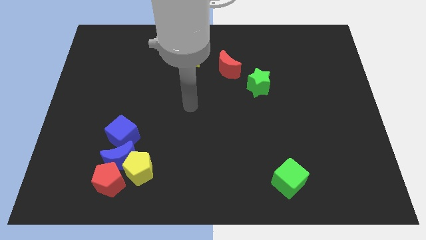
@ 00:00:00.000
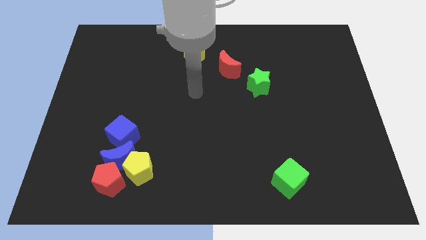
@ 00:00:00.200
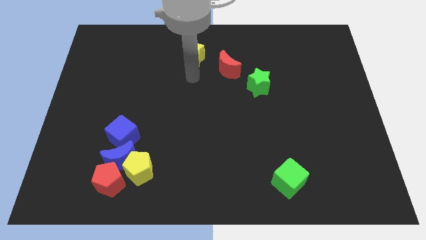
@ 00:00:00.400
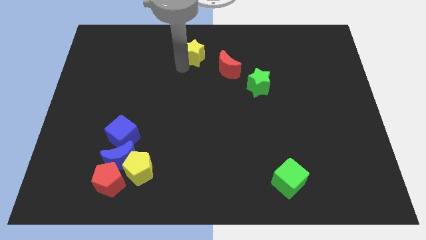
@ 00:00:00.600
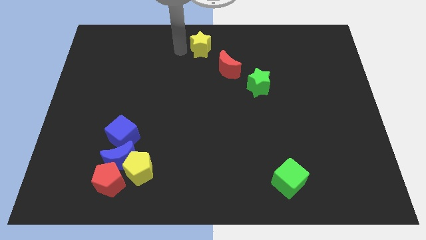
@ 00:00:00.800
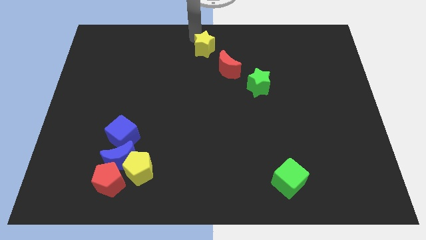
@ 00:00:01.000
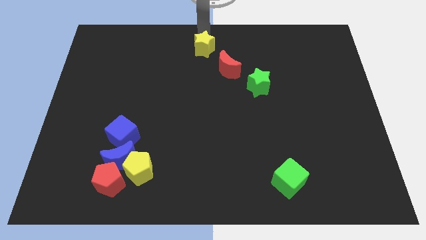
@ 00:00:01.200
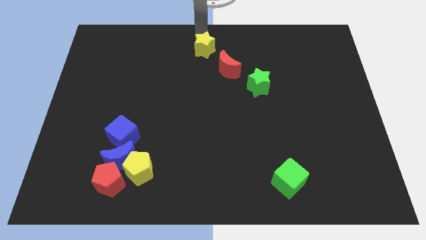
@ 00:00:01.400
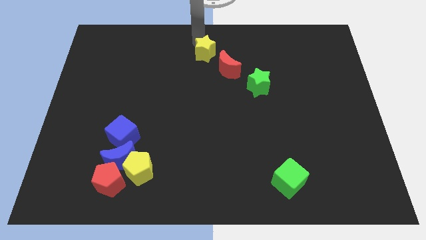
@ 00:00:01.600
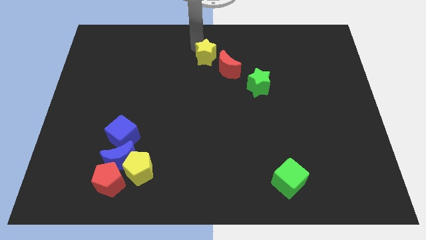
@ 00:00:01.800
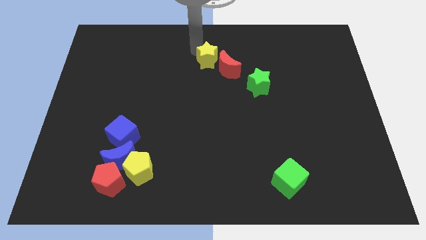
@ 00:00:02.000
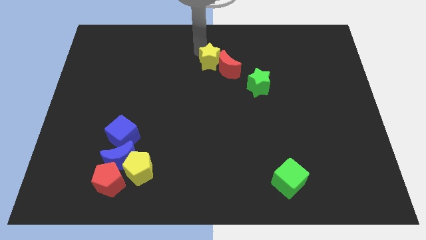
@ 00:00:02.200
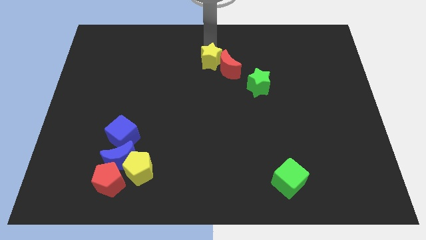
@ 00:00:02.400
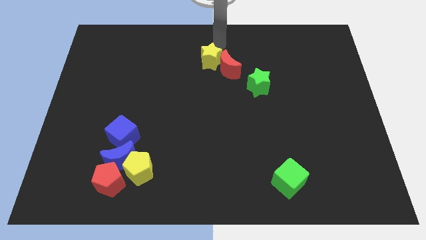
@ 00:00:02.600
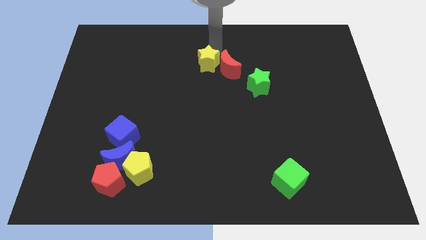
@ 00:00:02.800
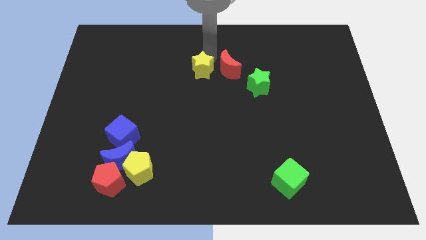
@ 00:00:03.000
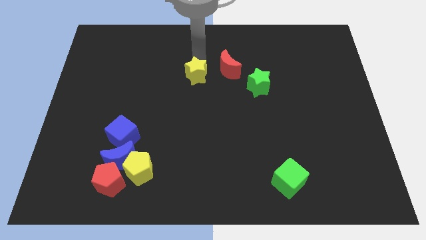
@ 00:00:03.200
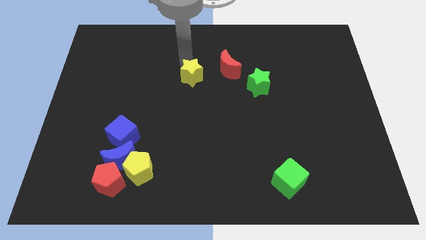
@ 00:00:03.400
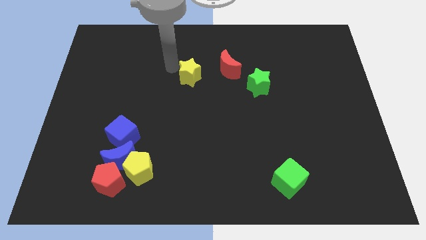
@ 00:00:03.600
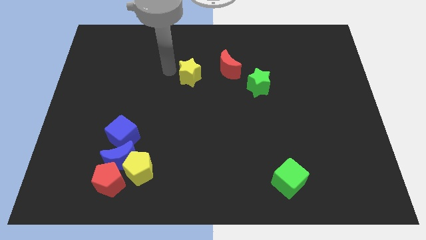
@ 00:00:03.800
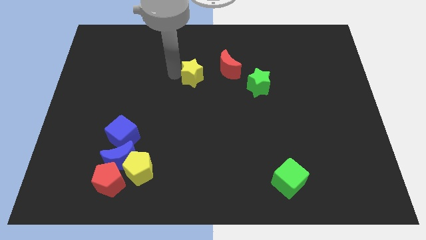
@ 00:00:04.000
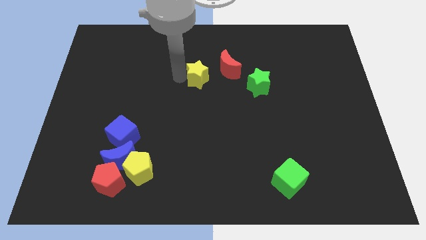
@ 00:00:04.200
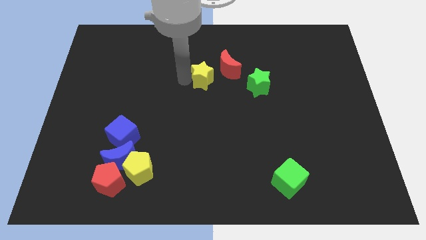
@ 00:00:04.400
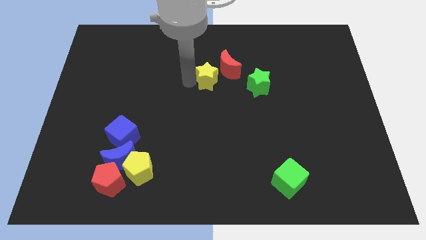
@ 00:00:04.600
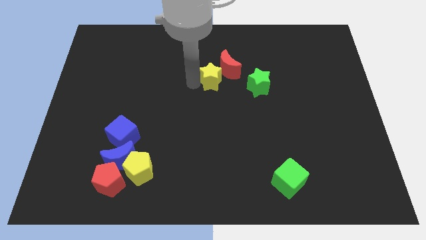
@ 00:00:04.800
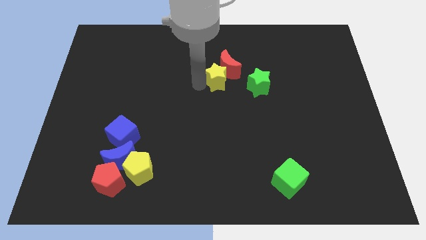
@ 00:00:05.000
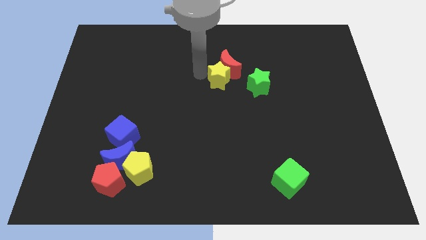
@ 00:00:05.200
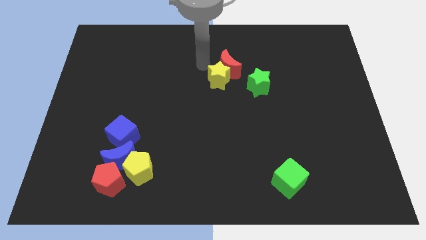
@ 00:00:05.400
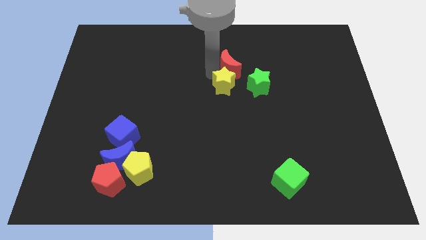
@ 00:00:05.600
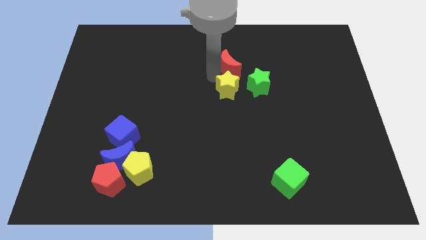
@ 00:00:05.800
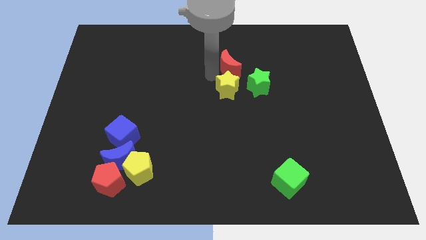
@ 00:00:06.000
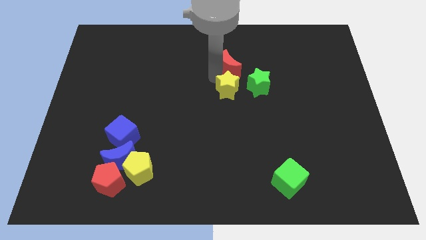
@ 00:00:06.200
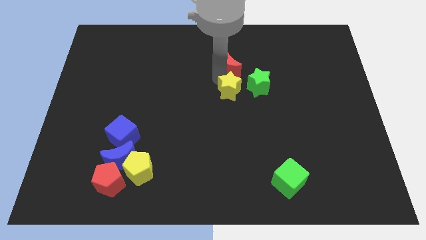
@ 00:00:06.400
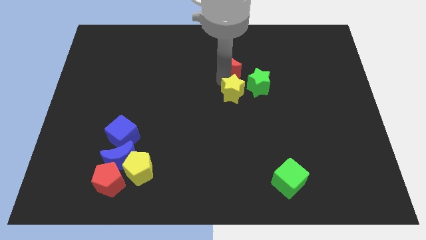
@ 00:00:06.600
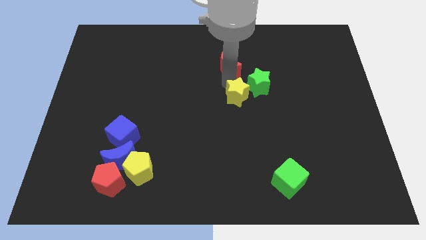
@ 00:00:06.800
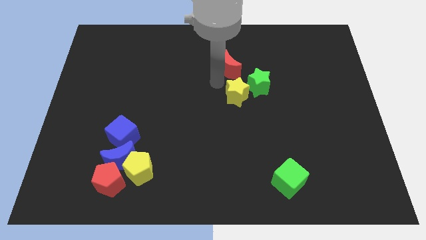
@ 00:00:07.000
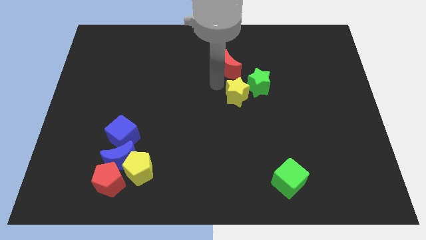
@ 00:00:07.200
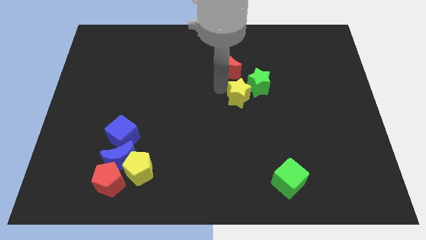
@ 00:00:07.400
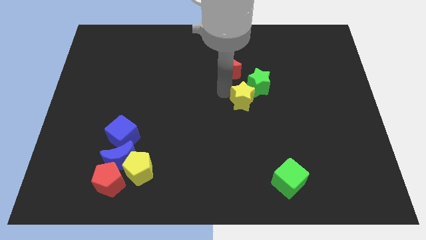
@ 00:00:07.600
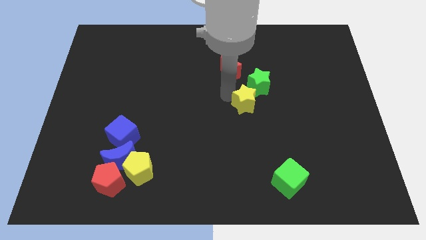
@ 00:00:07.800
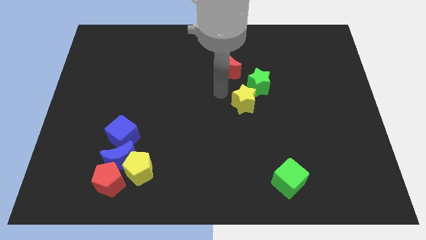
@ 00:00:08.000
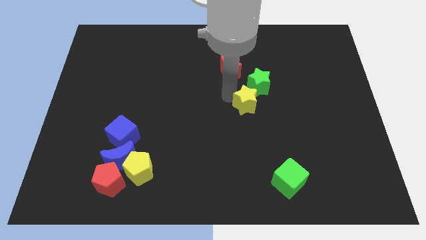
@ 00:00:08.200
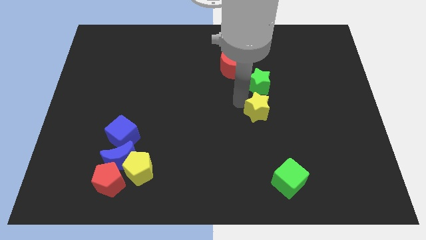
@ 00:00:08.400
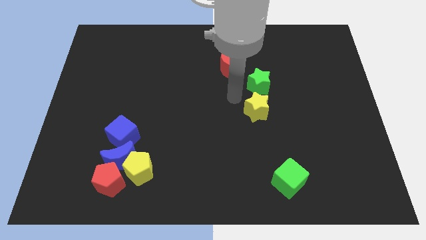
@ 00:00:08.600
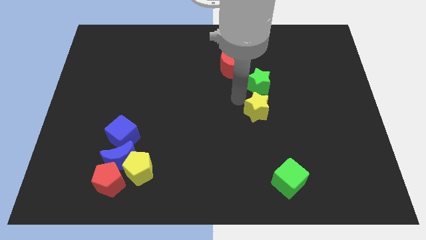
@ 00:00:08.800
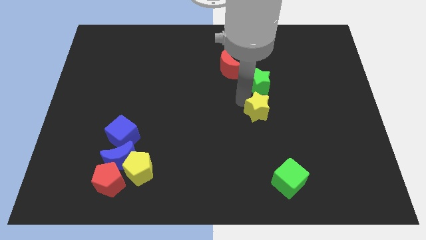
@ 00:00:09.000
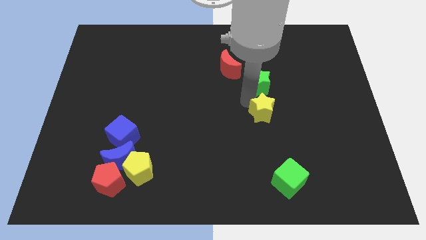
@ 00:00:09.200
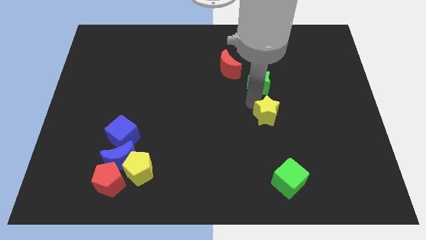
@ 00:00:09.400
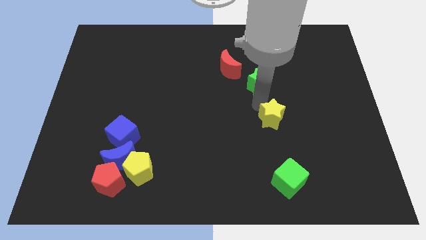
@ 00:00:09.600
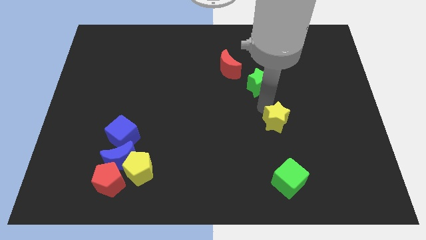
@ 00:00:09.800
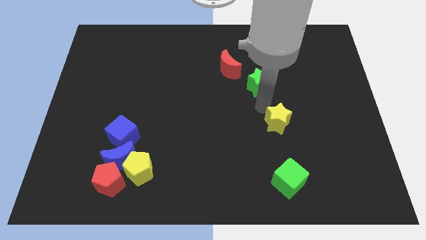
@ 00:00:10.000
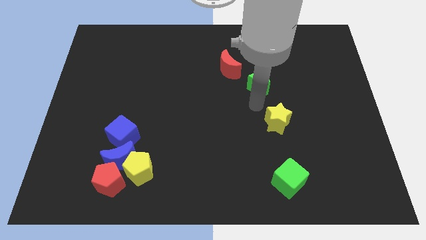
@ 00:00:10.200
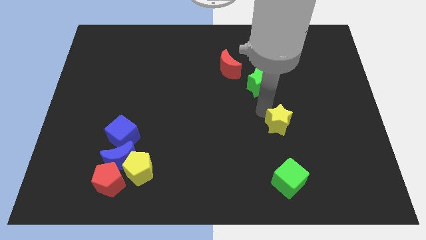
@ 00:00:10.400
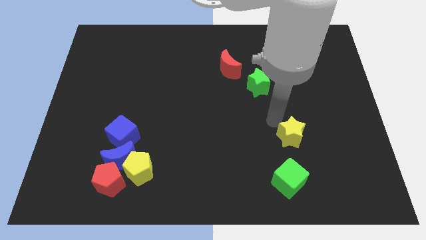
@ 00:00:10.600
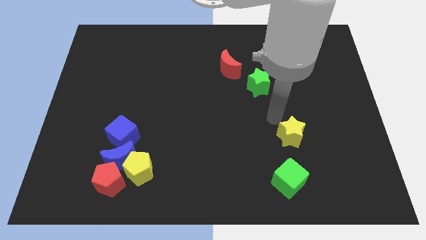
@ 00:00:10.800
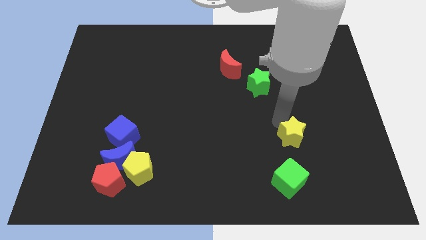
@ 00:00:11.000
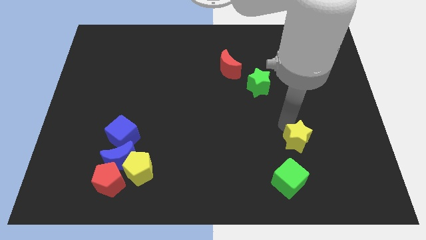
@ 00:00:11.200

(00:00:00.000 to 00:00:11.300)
put the yellow star to the top right side of the green cube
